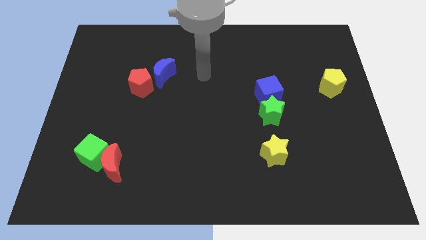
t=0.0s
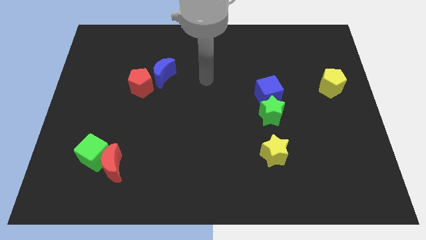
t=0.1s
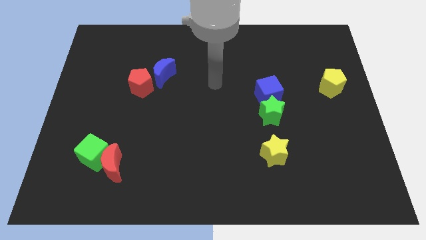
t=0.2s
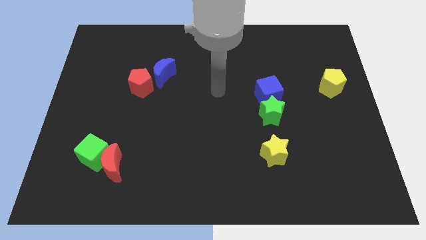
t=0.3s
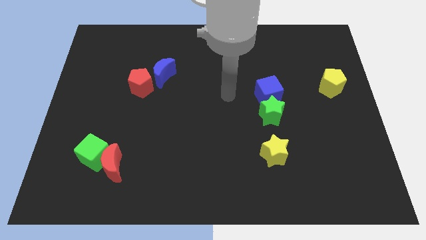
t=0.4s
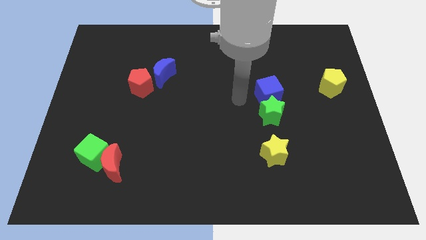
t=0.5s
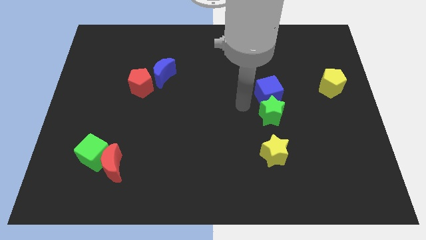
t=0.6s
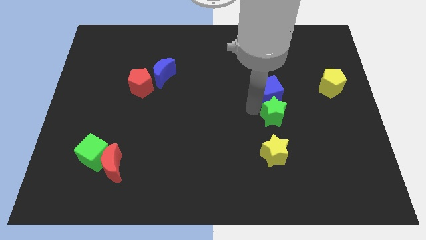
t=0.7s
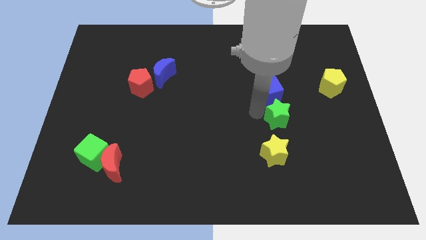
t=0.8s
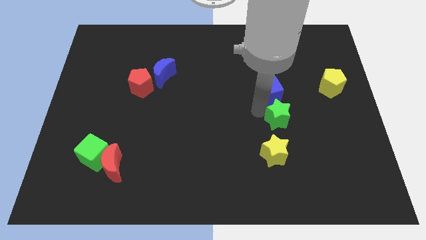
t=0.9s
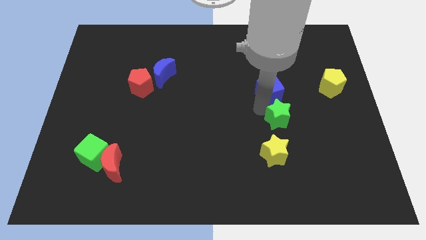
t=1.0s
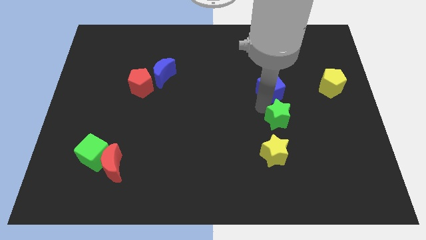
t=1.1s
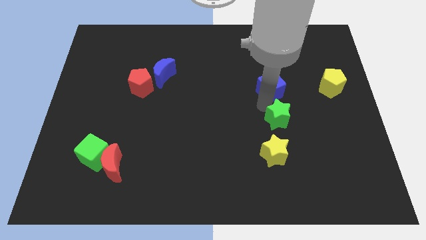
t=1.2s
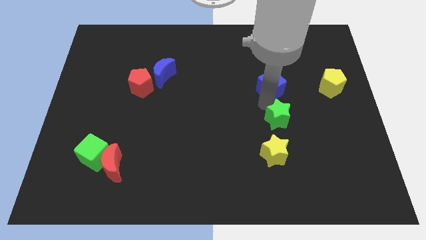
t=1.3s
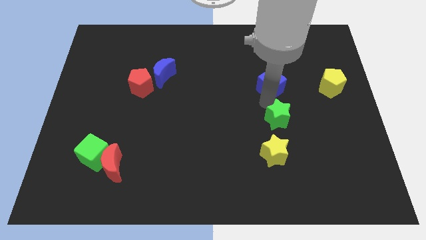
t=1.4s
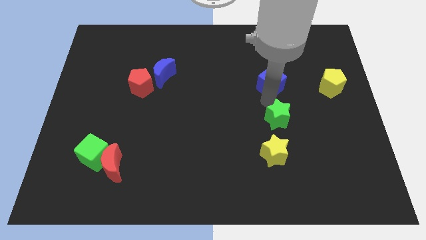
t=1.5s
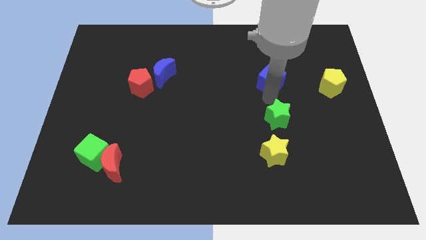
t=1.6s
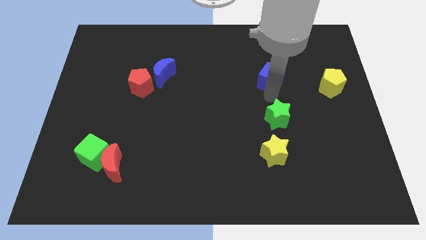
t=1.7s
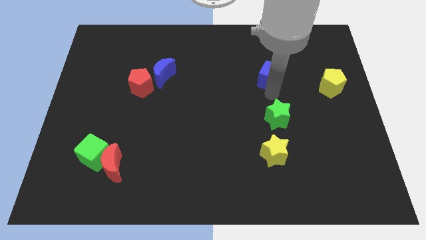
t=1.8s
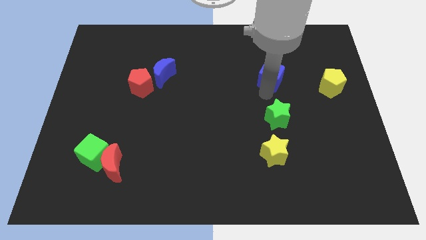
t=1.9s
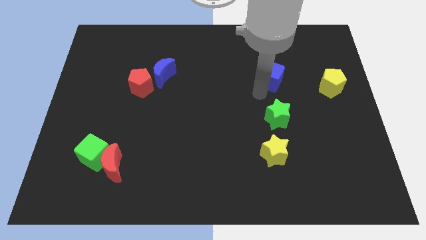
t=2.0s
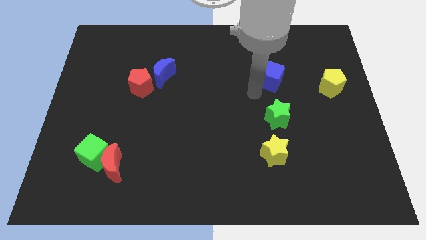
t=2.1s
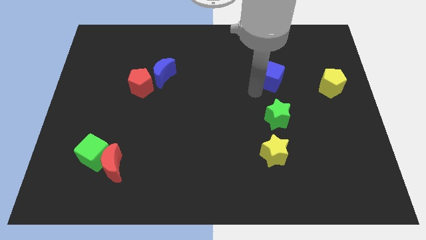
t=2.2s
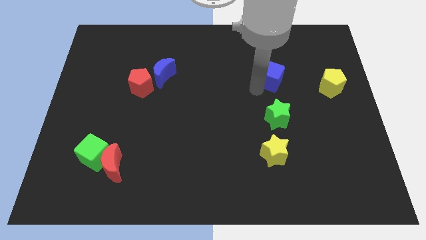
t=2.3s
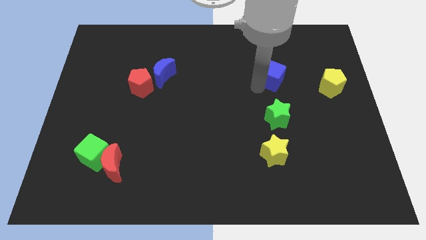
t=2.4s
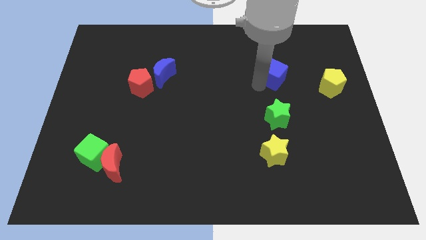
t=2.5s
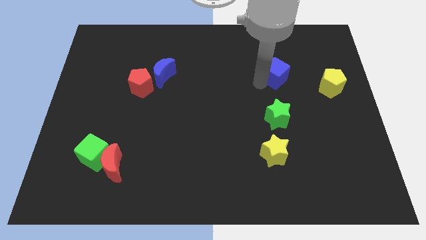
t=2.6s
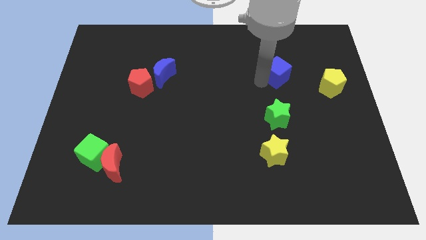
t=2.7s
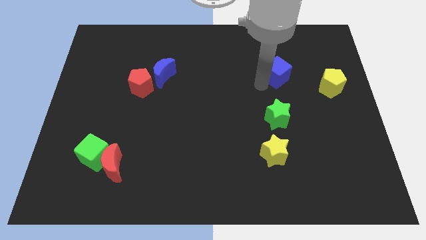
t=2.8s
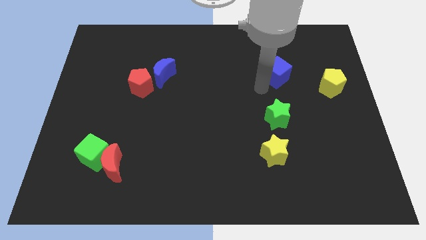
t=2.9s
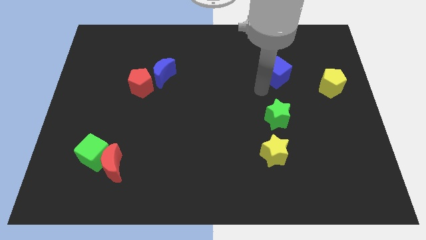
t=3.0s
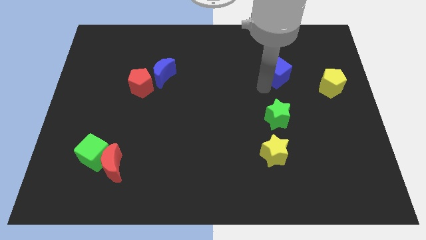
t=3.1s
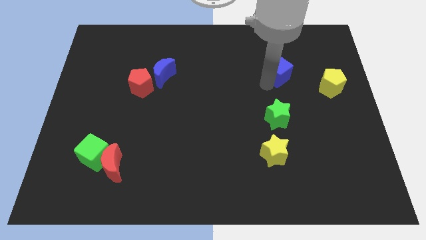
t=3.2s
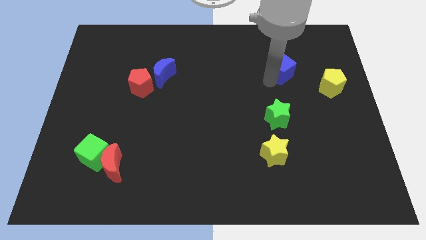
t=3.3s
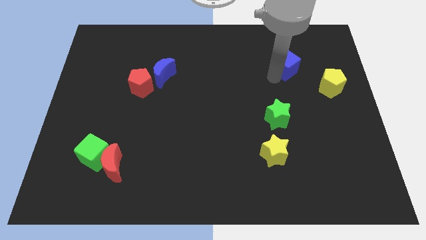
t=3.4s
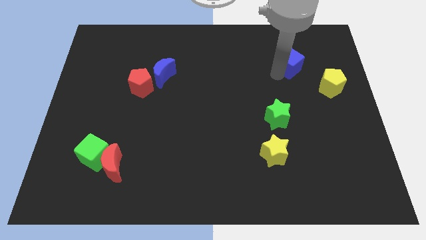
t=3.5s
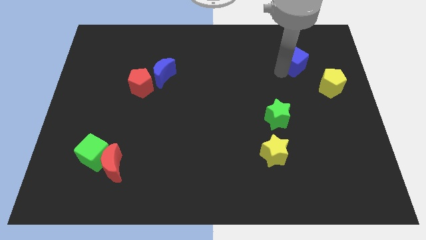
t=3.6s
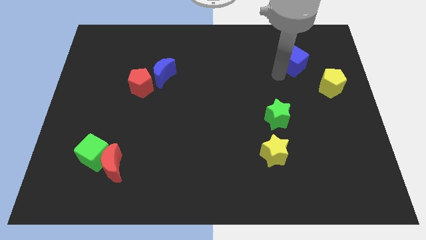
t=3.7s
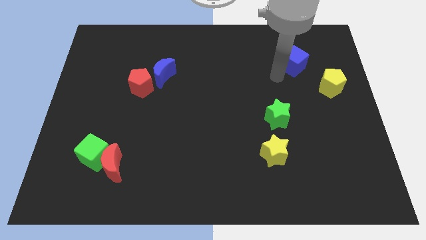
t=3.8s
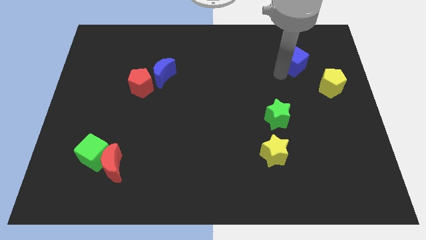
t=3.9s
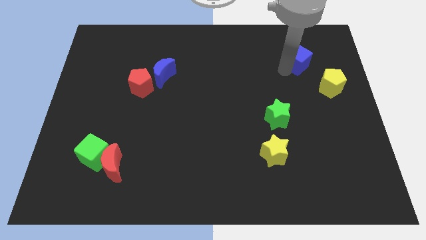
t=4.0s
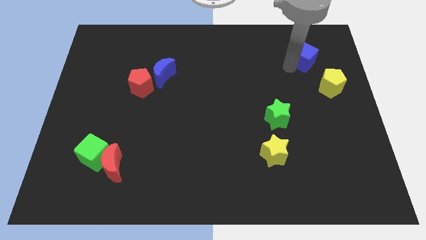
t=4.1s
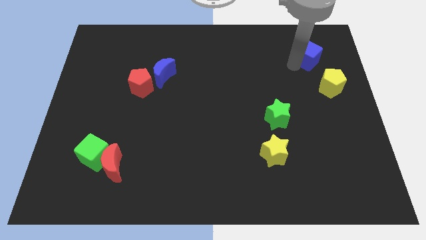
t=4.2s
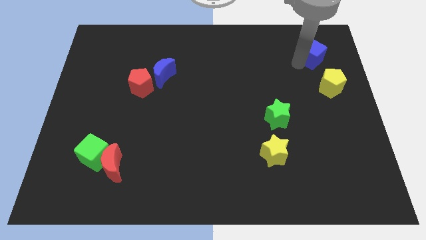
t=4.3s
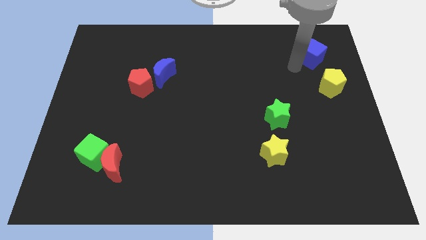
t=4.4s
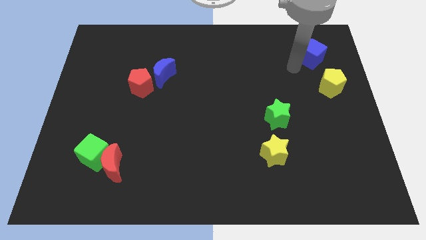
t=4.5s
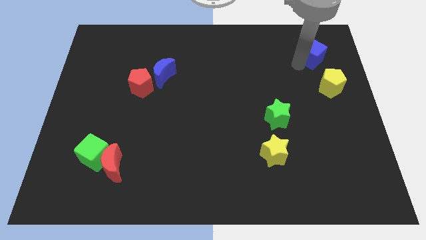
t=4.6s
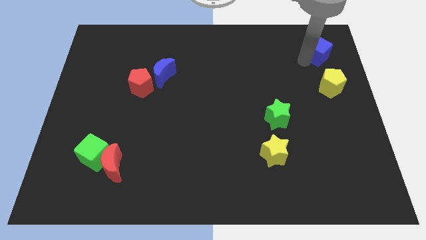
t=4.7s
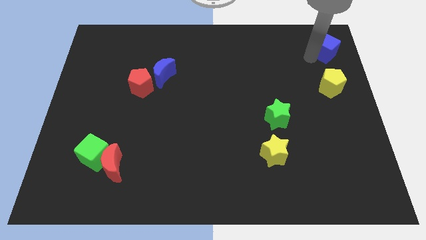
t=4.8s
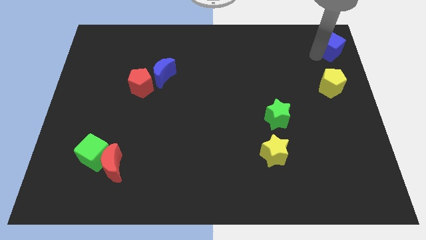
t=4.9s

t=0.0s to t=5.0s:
push the blue cube to the upper right corner

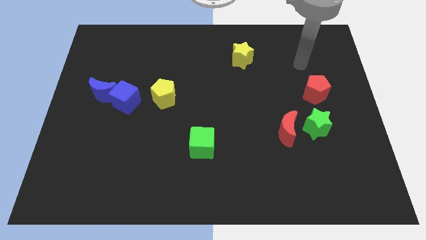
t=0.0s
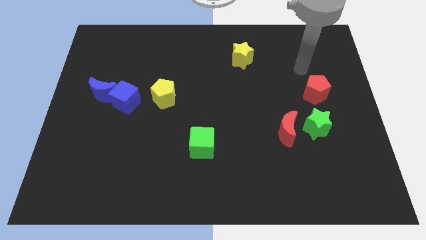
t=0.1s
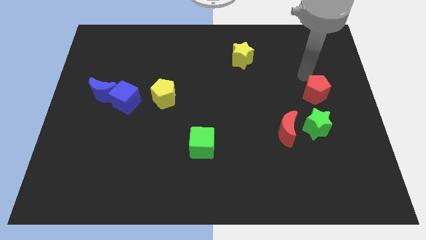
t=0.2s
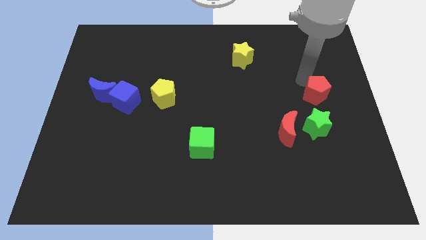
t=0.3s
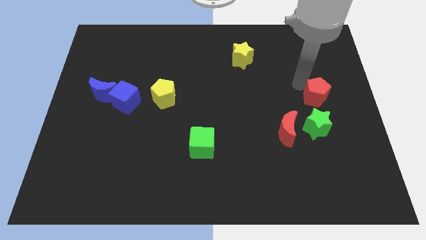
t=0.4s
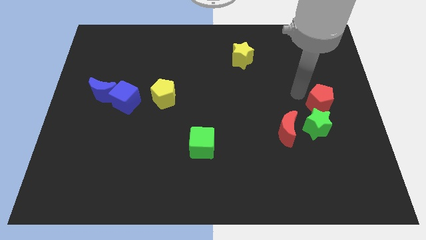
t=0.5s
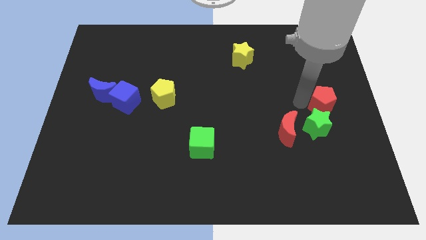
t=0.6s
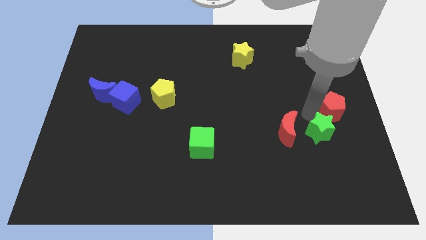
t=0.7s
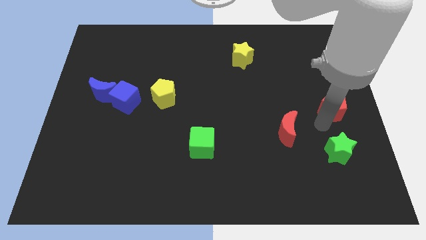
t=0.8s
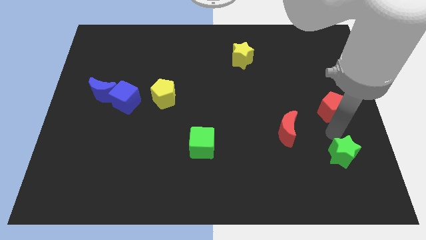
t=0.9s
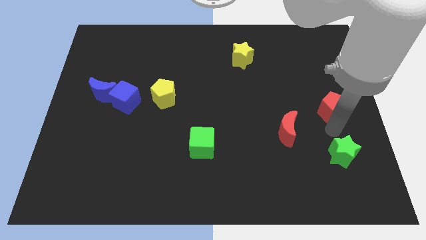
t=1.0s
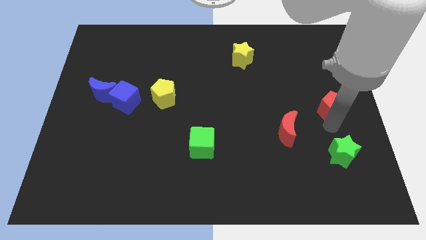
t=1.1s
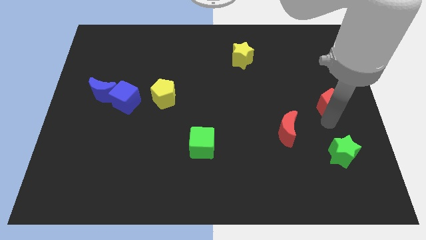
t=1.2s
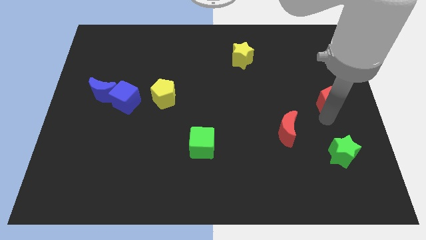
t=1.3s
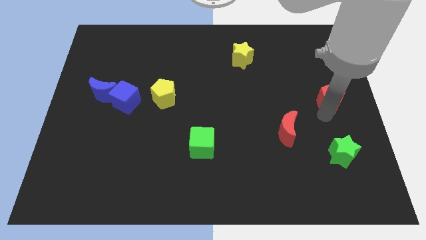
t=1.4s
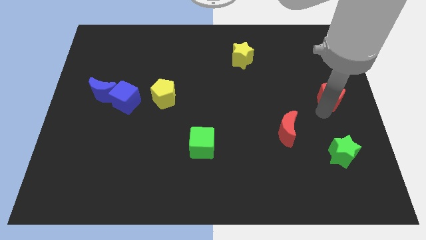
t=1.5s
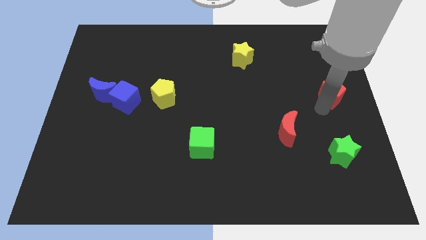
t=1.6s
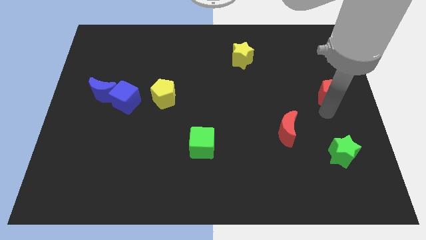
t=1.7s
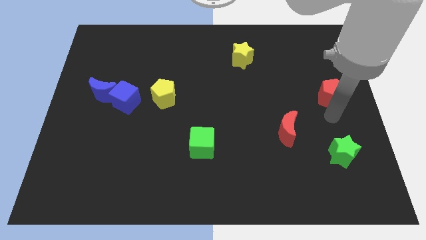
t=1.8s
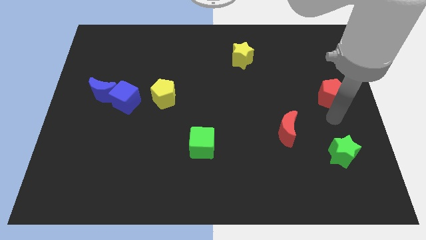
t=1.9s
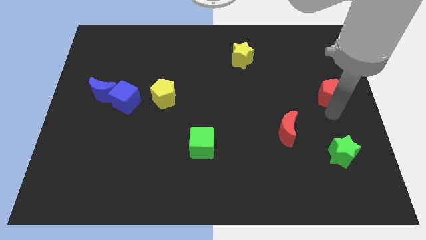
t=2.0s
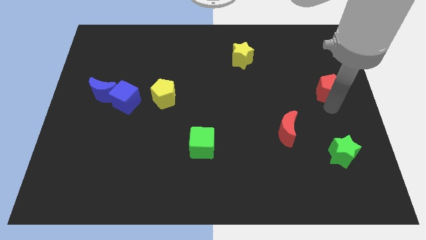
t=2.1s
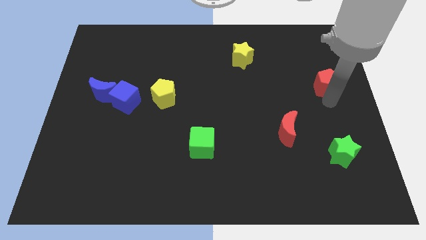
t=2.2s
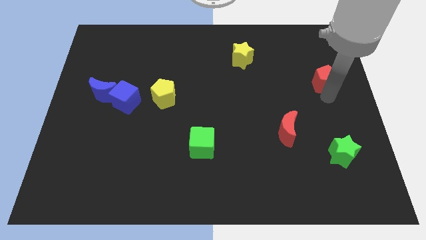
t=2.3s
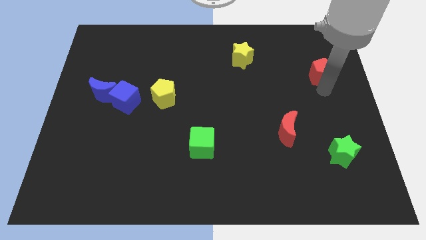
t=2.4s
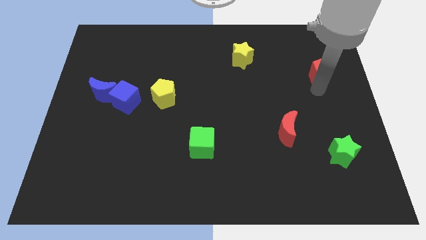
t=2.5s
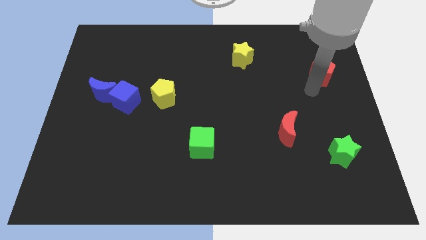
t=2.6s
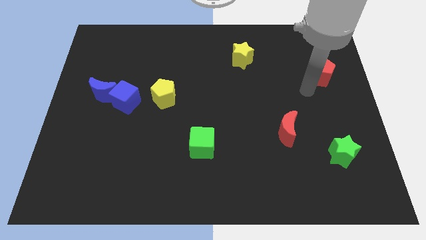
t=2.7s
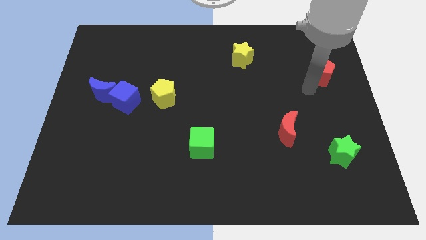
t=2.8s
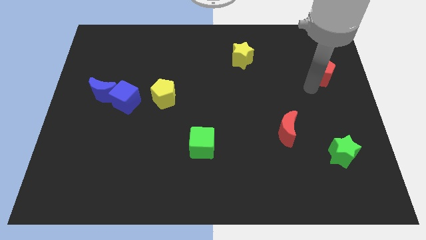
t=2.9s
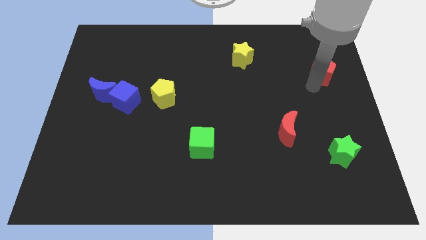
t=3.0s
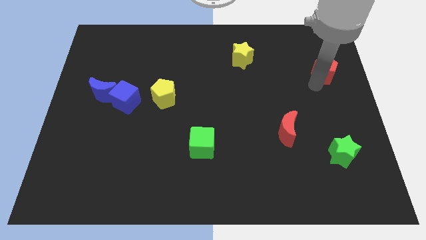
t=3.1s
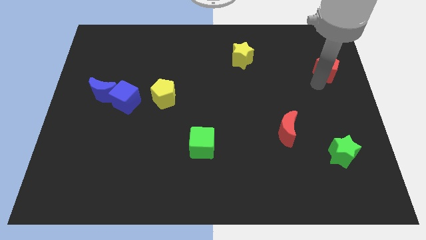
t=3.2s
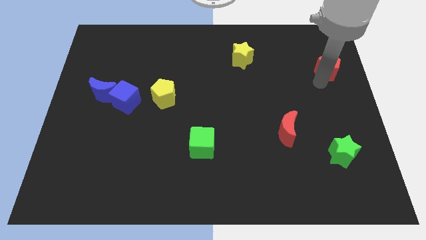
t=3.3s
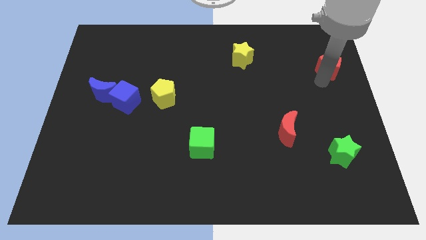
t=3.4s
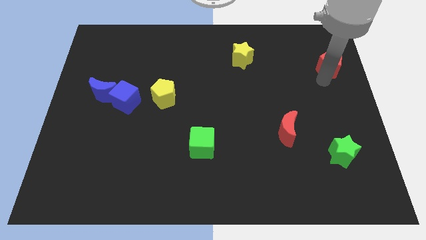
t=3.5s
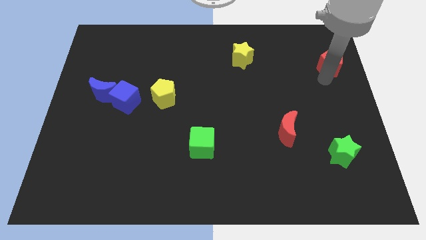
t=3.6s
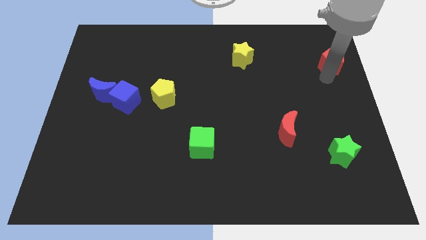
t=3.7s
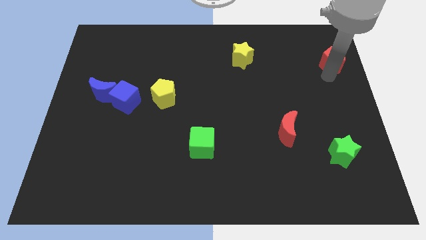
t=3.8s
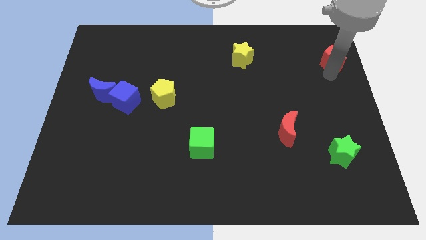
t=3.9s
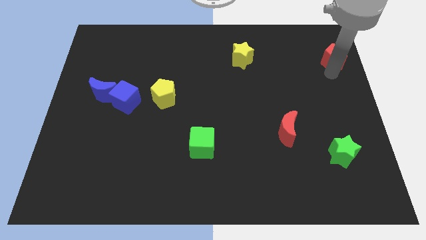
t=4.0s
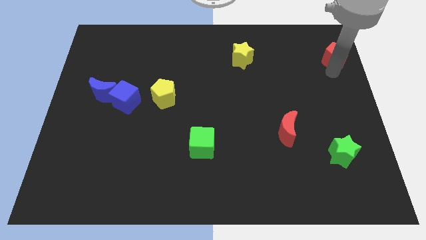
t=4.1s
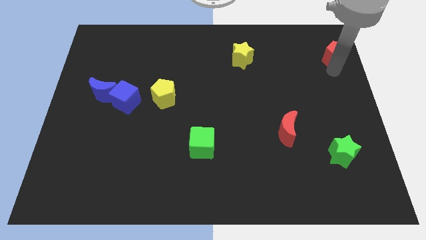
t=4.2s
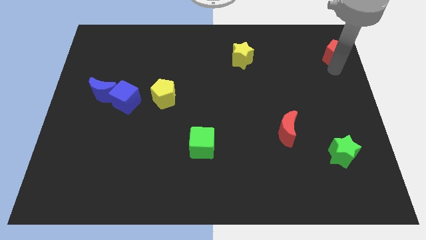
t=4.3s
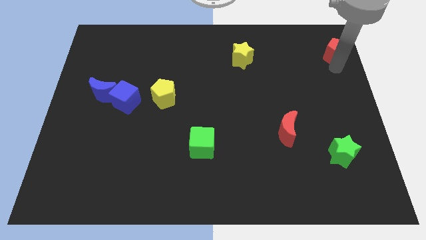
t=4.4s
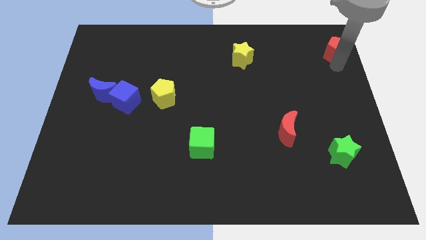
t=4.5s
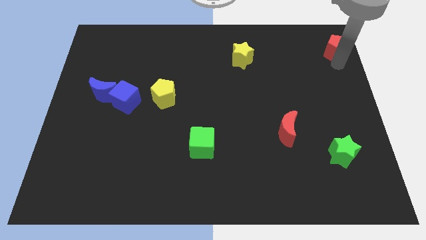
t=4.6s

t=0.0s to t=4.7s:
put the red pentagon to the top right of the board
